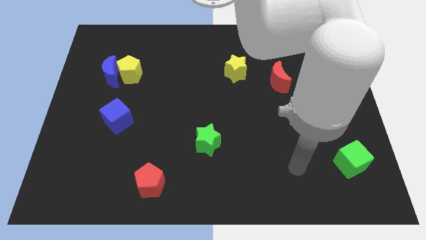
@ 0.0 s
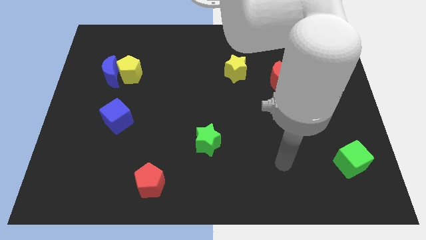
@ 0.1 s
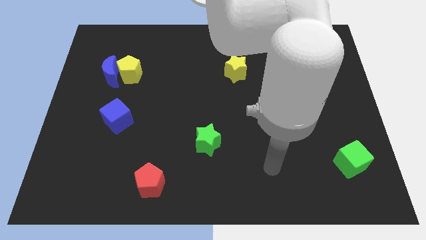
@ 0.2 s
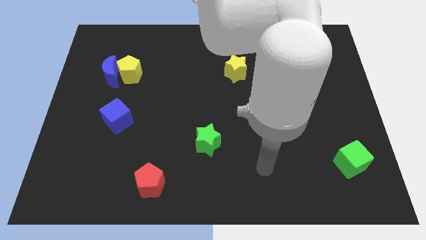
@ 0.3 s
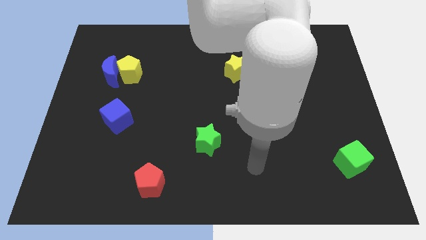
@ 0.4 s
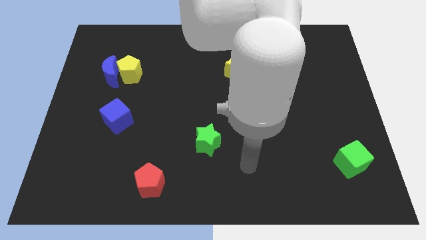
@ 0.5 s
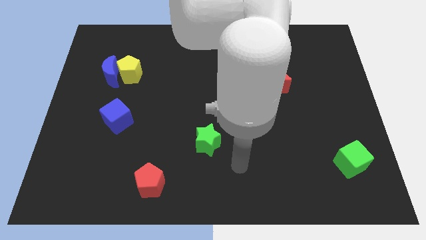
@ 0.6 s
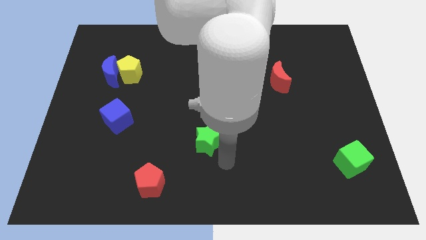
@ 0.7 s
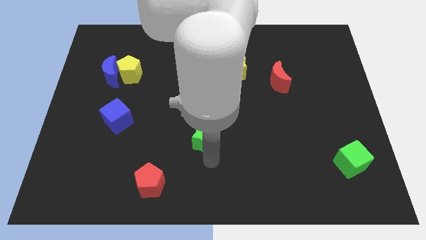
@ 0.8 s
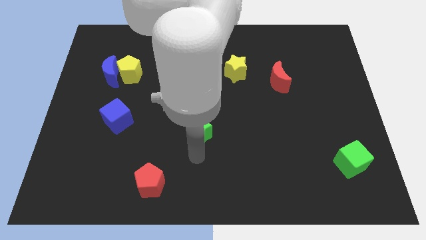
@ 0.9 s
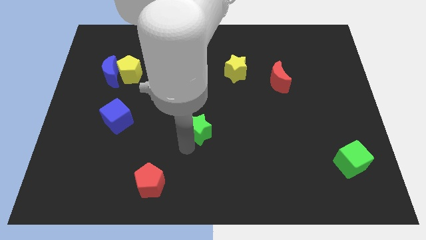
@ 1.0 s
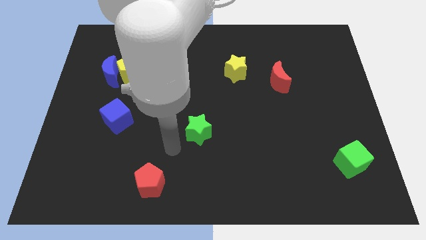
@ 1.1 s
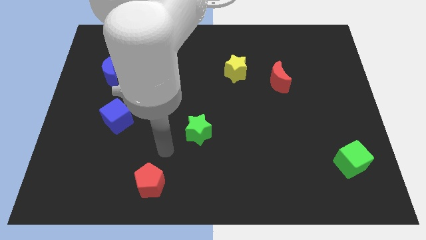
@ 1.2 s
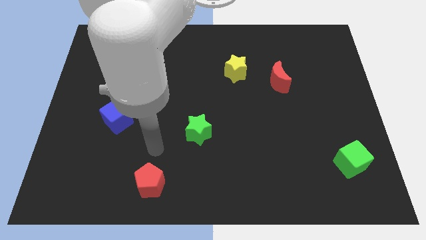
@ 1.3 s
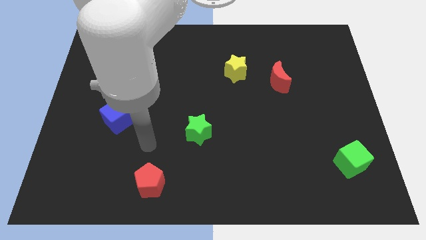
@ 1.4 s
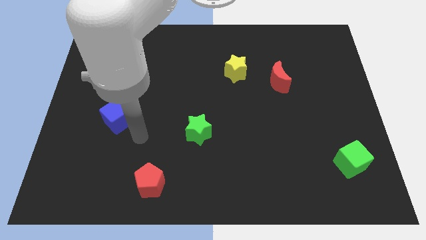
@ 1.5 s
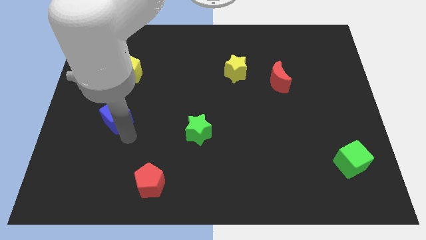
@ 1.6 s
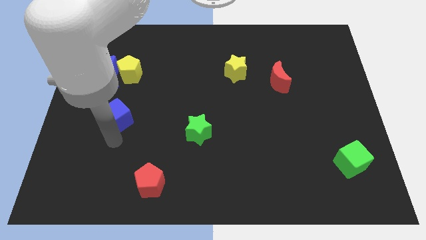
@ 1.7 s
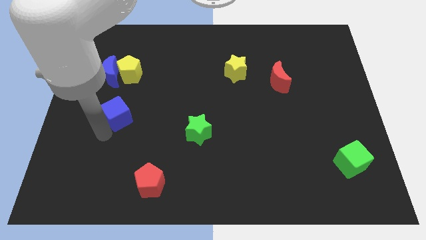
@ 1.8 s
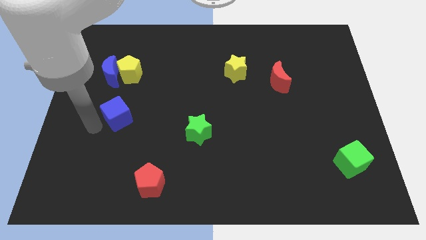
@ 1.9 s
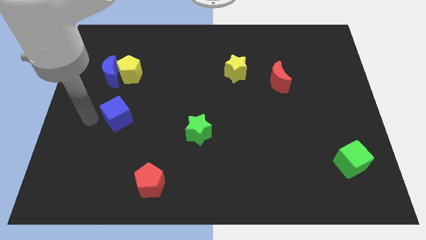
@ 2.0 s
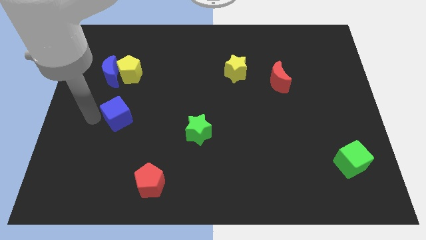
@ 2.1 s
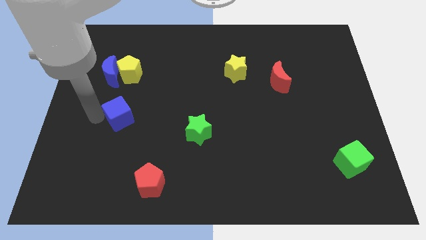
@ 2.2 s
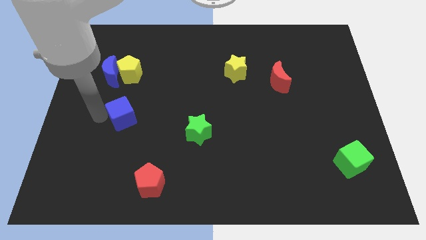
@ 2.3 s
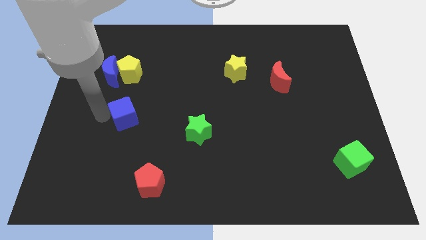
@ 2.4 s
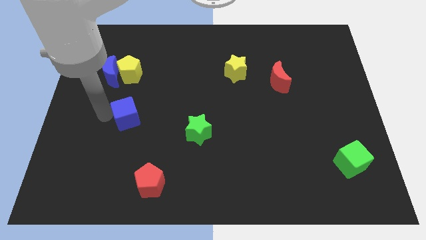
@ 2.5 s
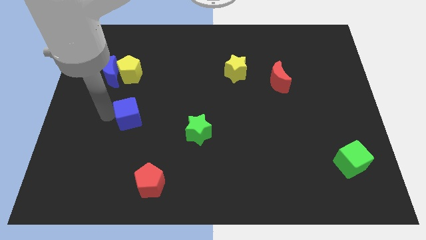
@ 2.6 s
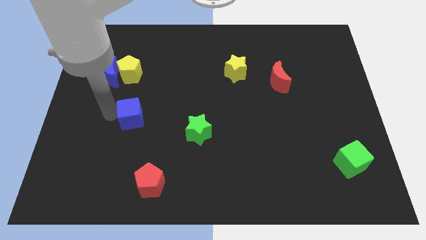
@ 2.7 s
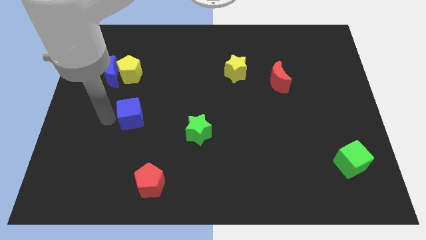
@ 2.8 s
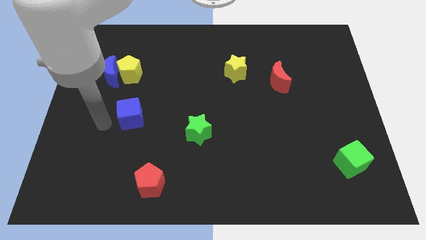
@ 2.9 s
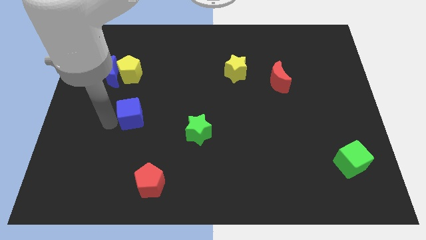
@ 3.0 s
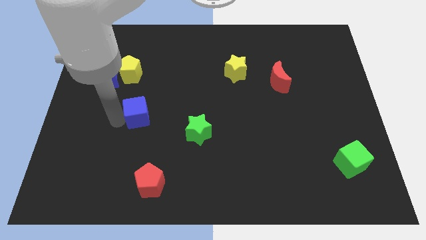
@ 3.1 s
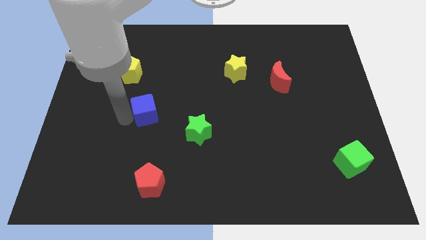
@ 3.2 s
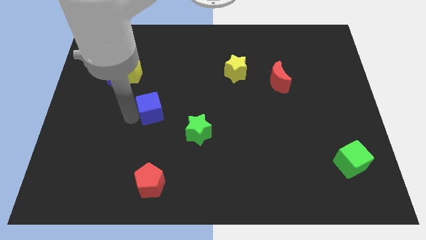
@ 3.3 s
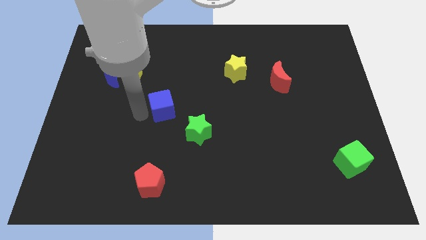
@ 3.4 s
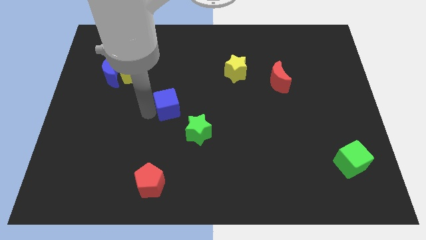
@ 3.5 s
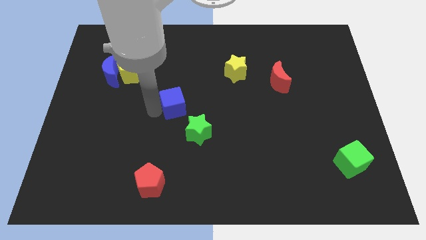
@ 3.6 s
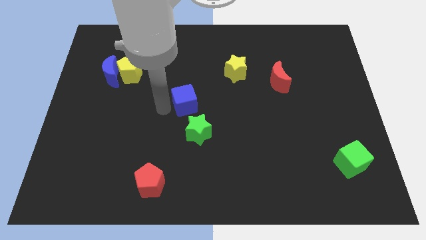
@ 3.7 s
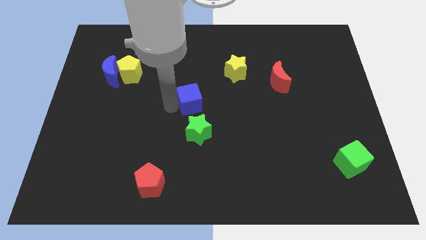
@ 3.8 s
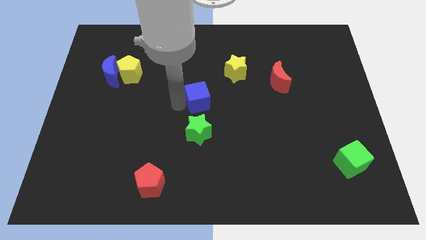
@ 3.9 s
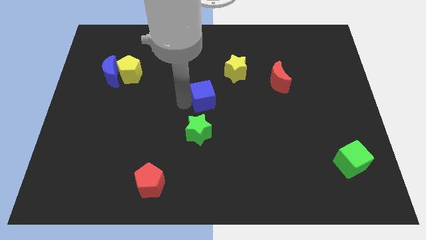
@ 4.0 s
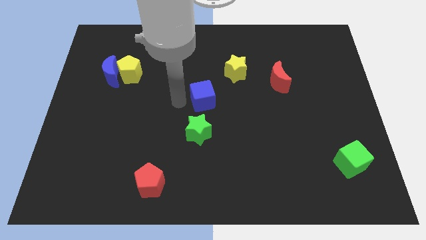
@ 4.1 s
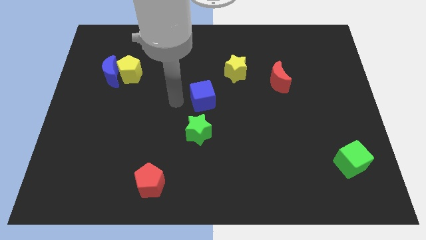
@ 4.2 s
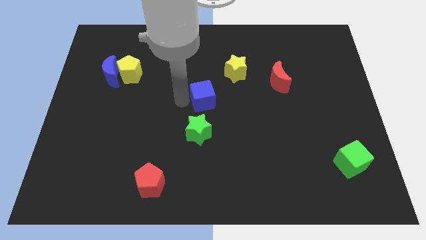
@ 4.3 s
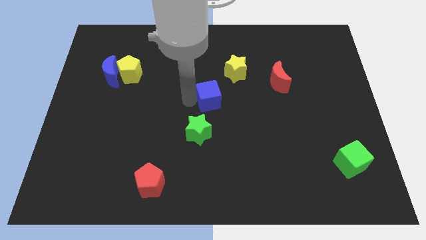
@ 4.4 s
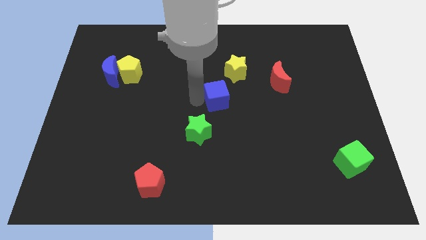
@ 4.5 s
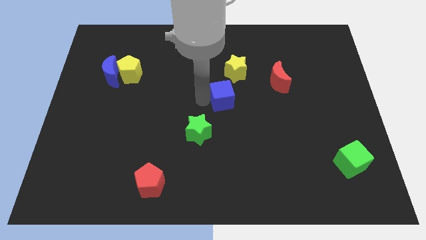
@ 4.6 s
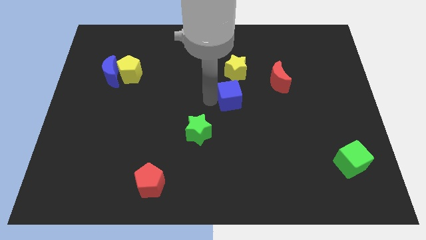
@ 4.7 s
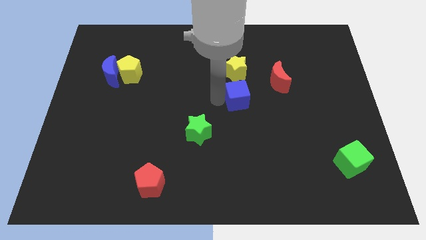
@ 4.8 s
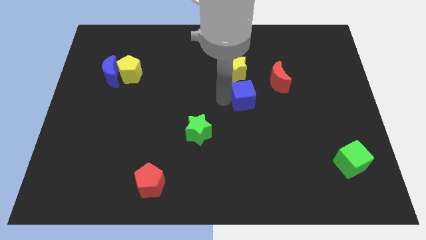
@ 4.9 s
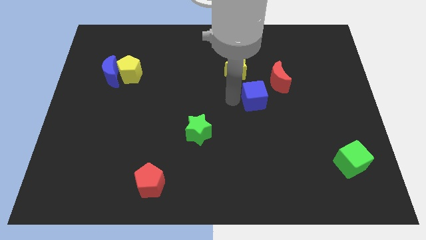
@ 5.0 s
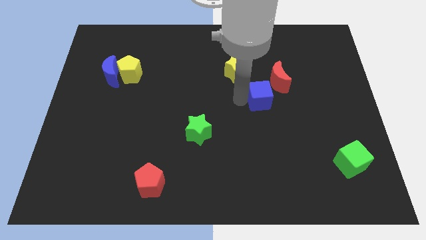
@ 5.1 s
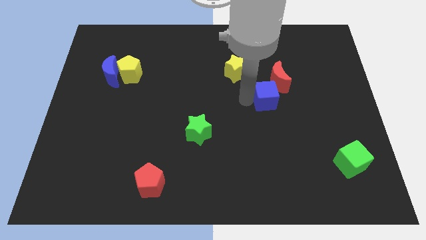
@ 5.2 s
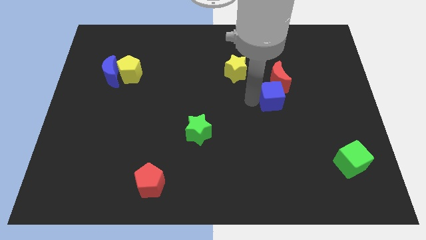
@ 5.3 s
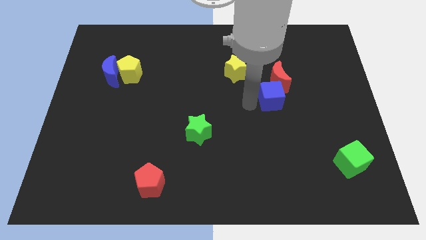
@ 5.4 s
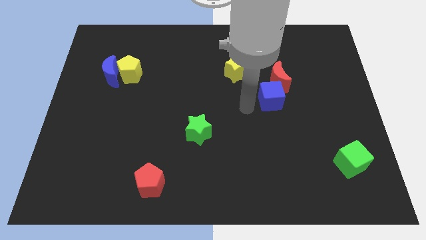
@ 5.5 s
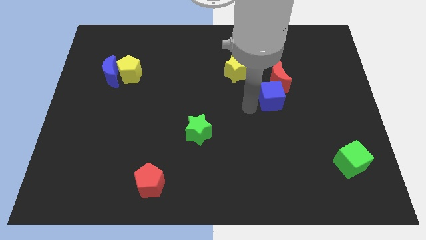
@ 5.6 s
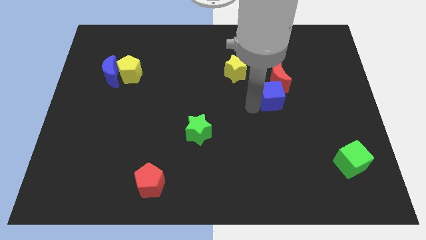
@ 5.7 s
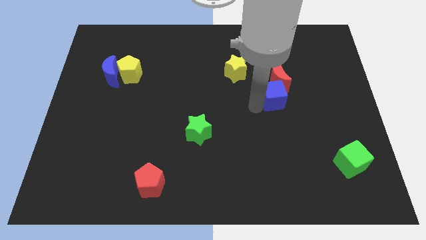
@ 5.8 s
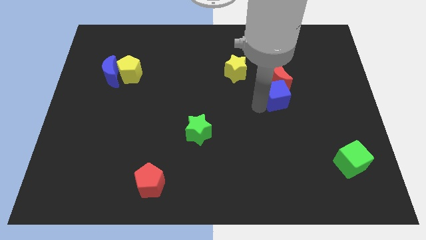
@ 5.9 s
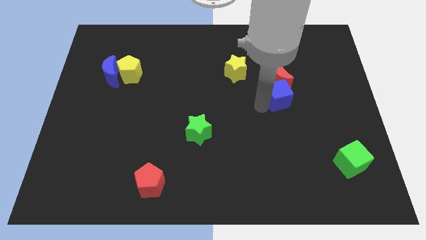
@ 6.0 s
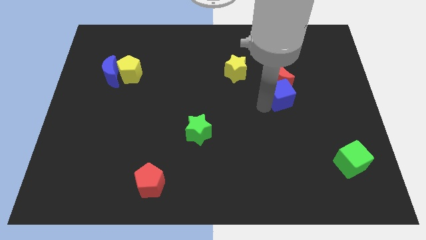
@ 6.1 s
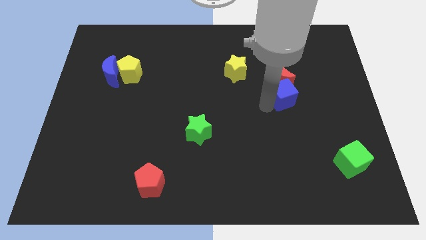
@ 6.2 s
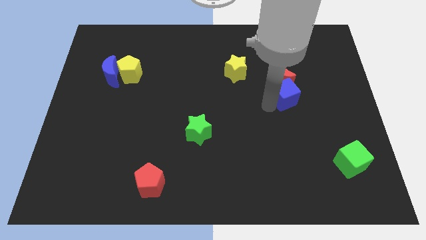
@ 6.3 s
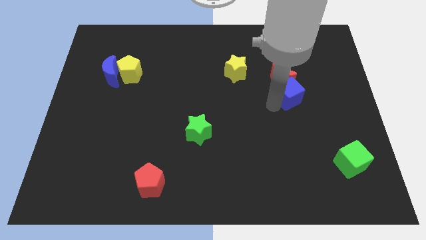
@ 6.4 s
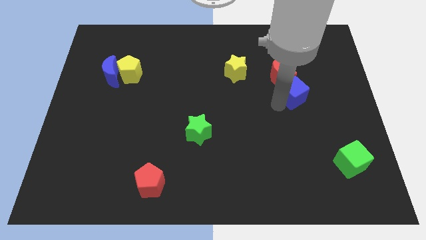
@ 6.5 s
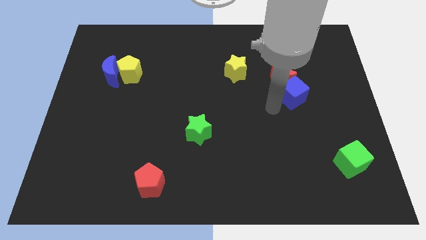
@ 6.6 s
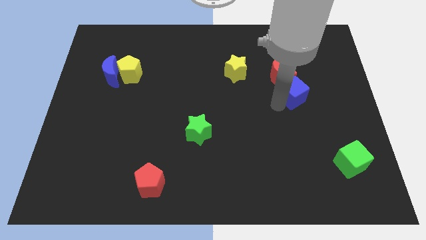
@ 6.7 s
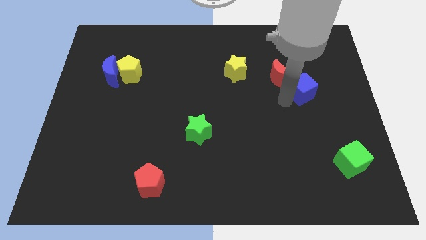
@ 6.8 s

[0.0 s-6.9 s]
push the blue cube to the right of the red moon

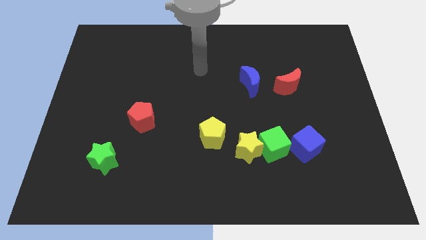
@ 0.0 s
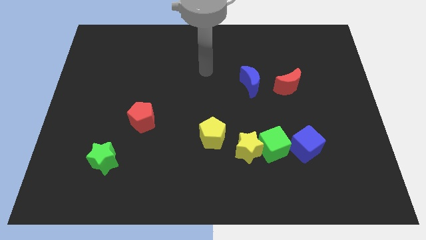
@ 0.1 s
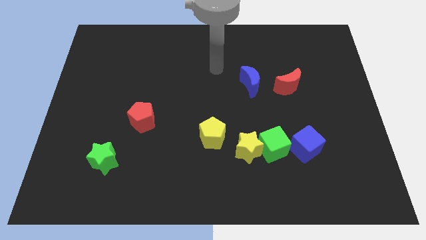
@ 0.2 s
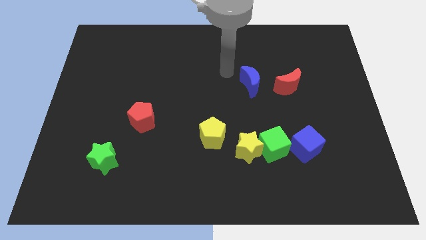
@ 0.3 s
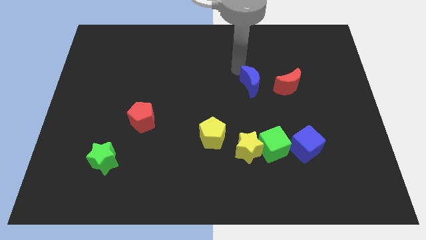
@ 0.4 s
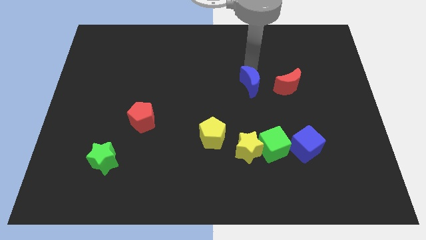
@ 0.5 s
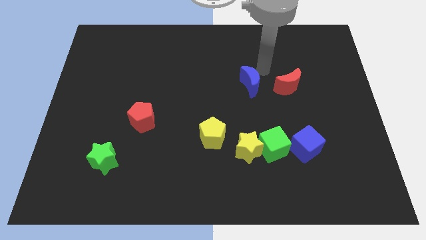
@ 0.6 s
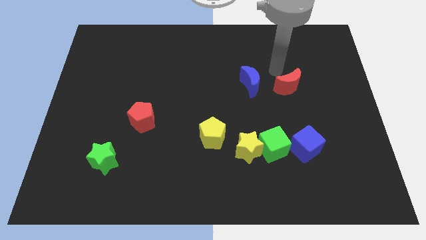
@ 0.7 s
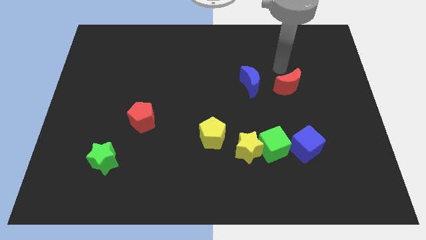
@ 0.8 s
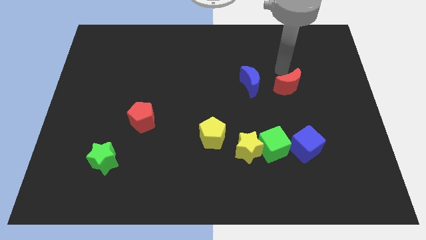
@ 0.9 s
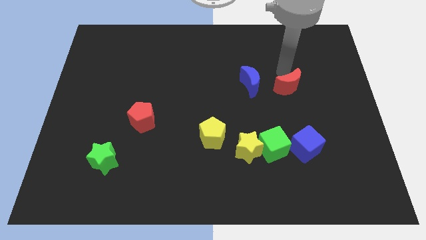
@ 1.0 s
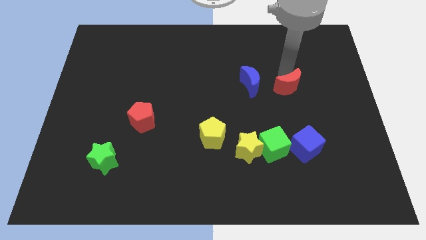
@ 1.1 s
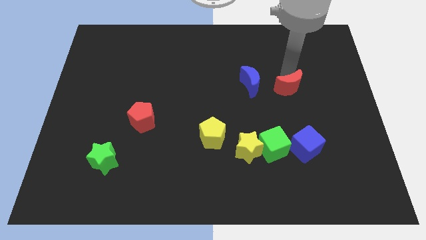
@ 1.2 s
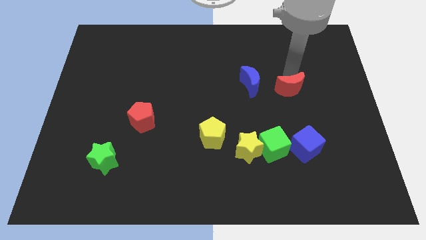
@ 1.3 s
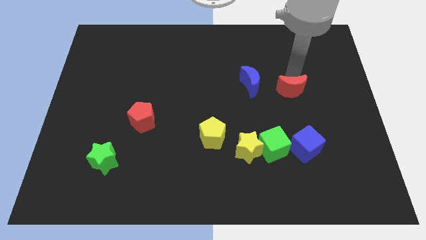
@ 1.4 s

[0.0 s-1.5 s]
put the red moon above the blue cube
